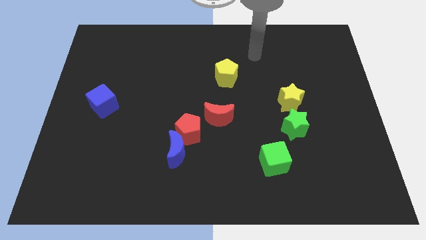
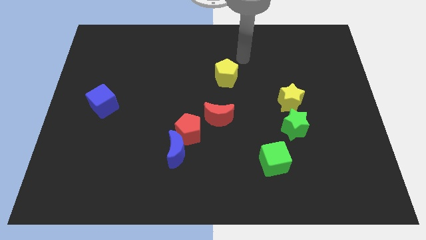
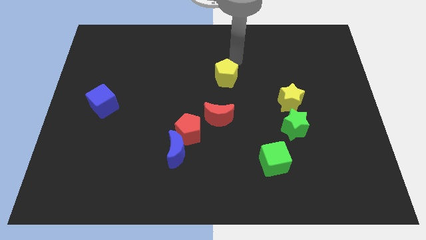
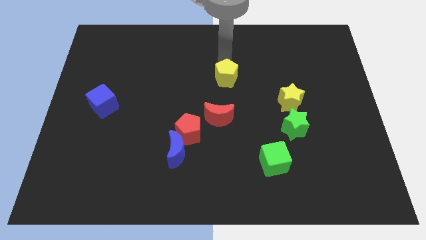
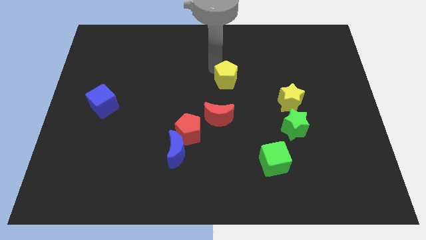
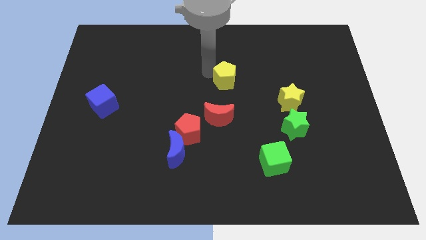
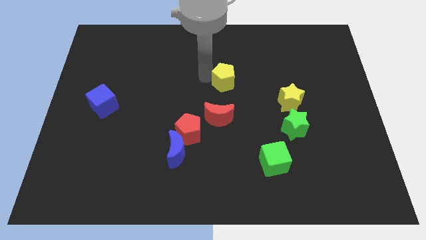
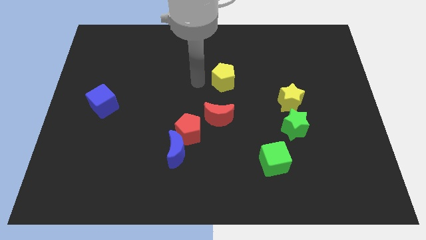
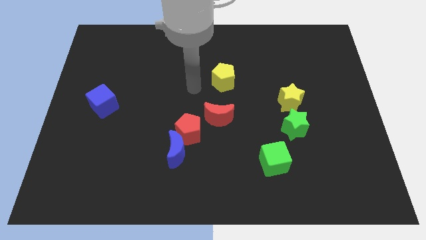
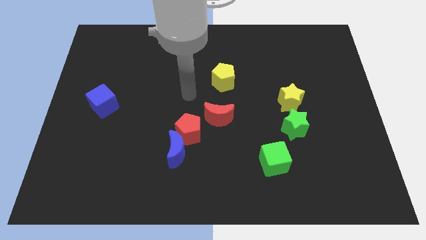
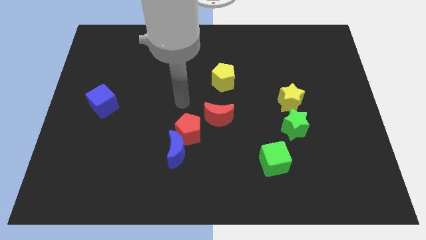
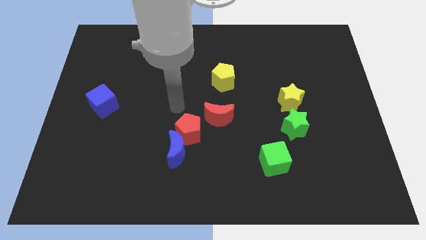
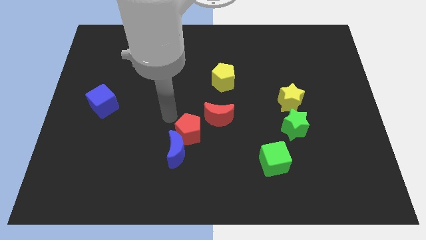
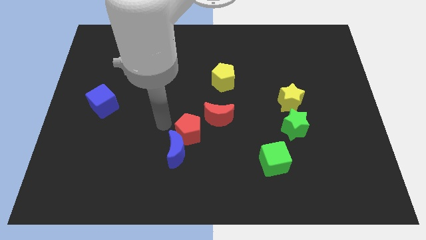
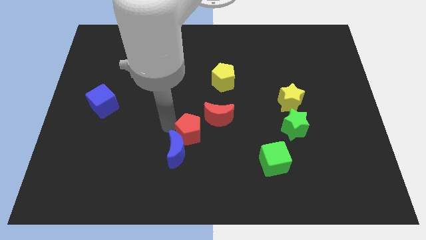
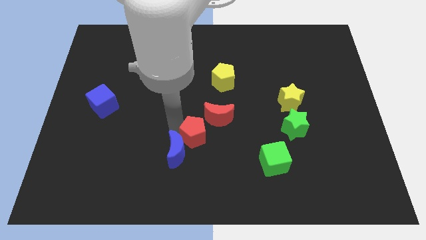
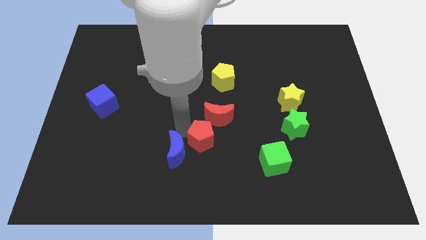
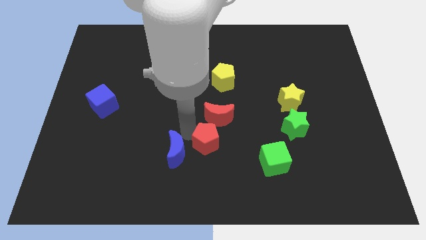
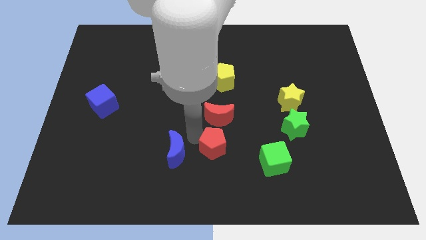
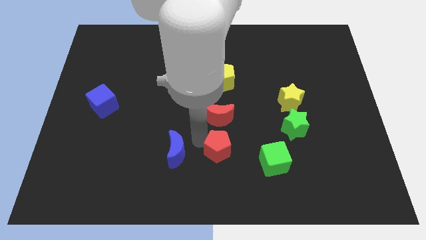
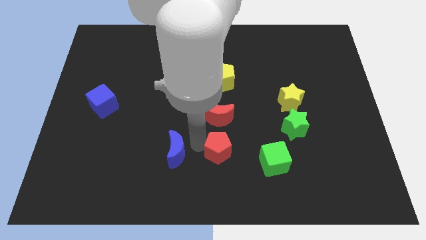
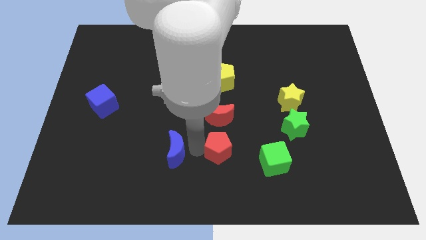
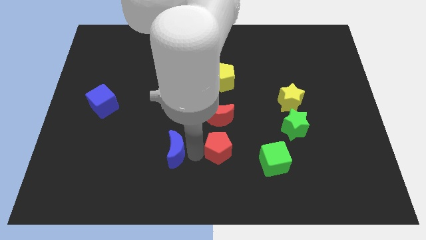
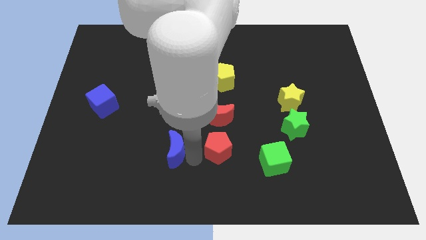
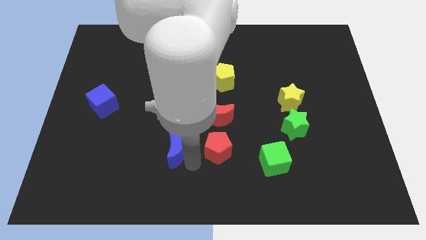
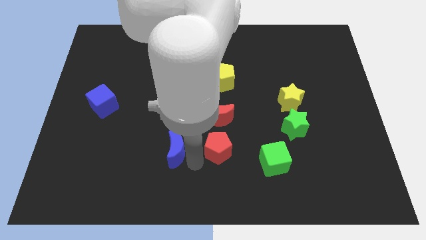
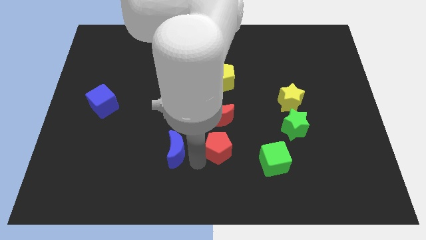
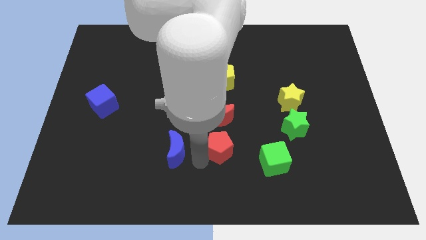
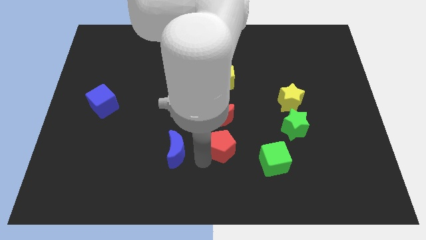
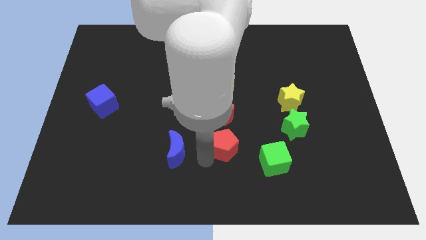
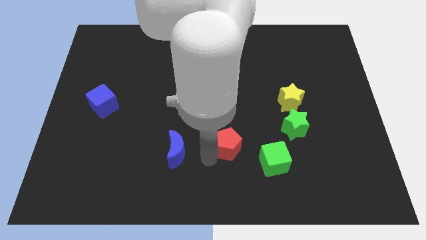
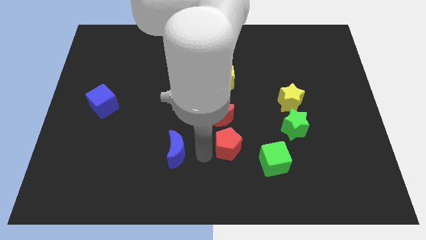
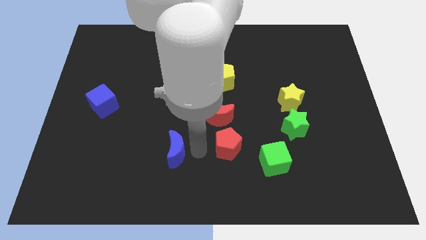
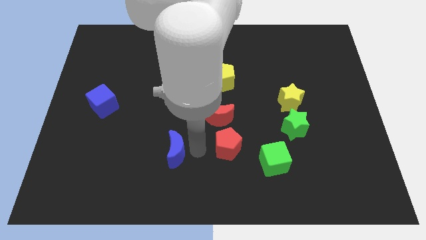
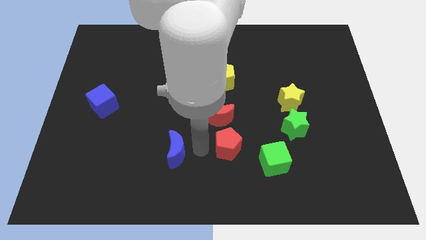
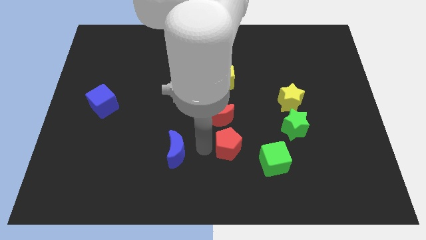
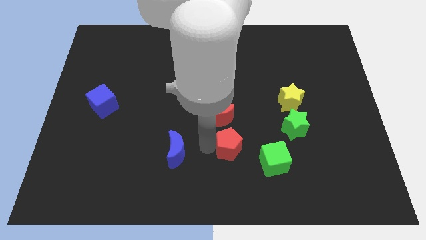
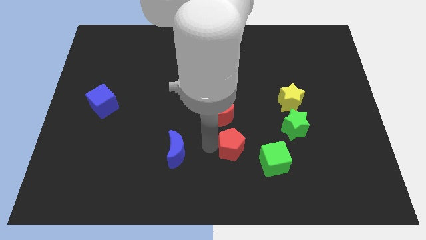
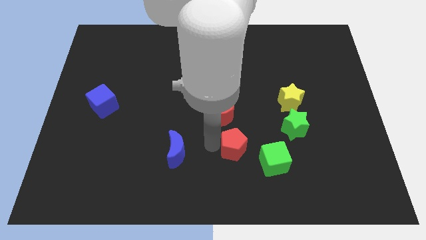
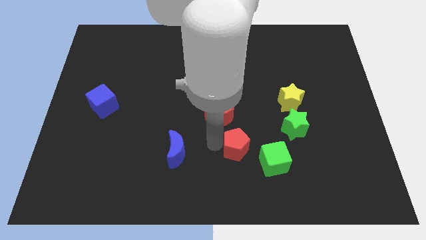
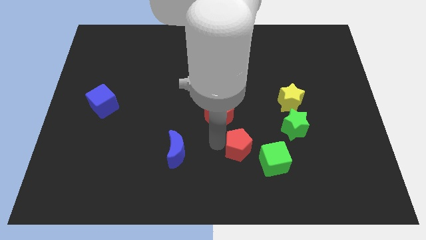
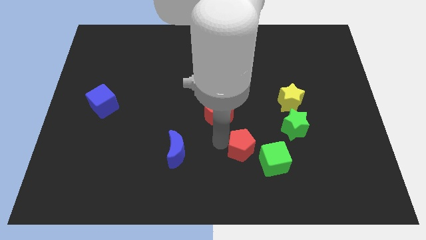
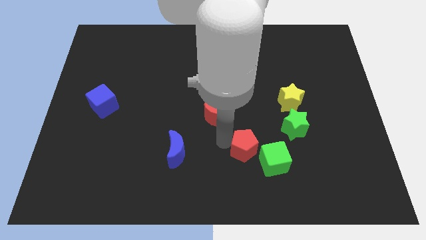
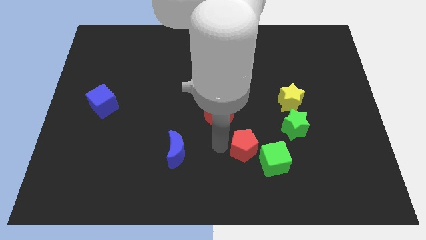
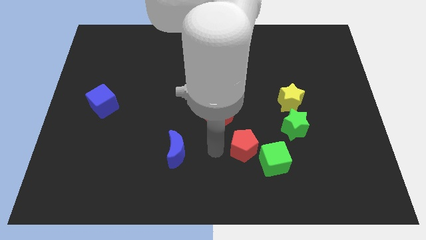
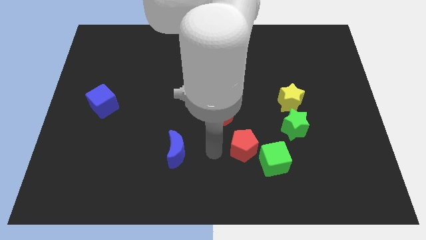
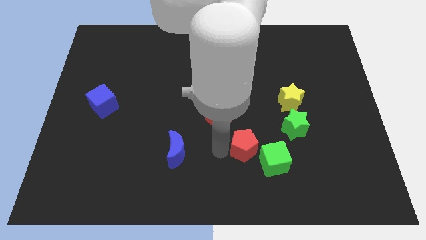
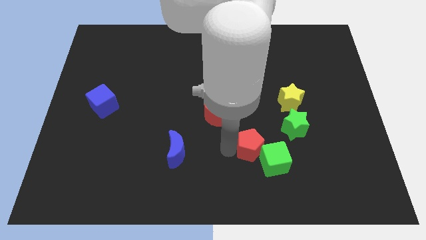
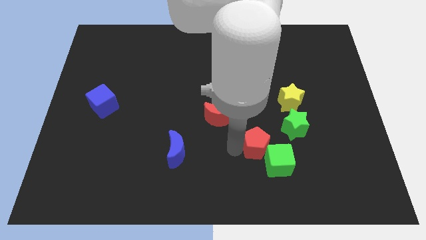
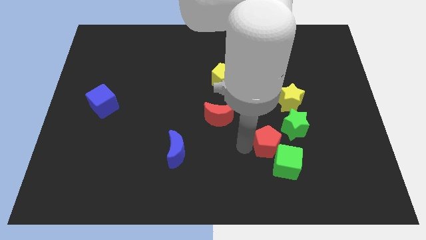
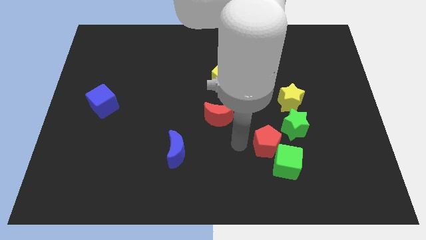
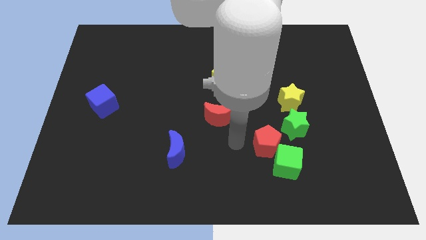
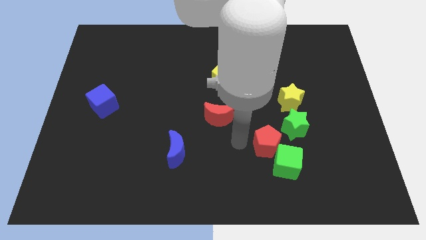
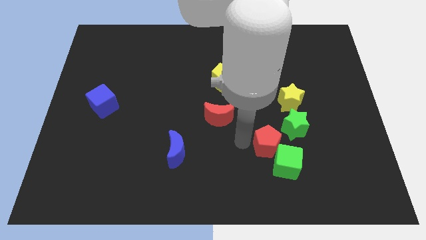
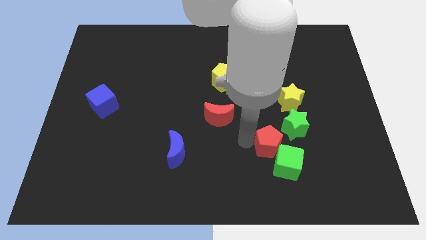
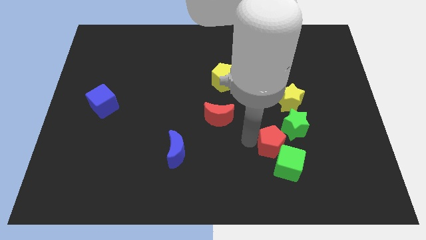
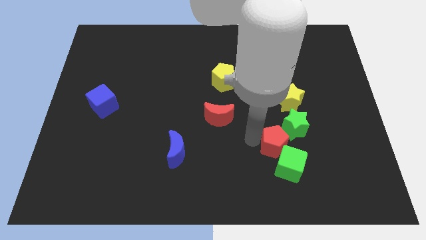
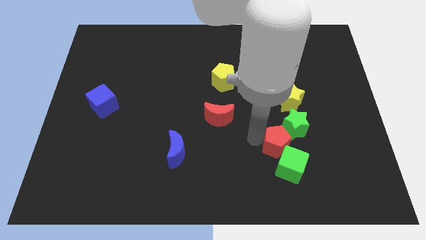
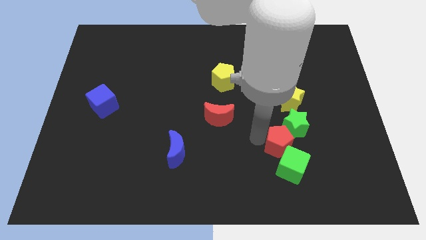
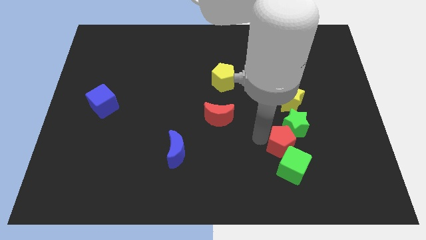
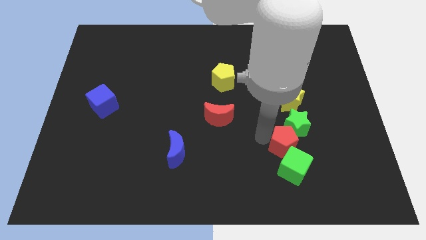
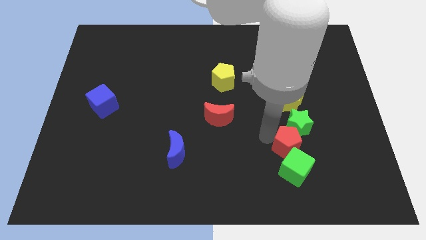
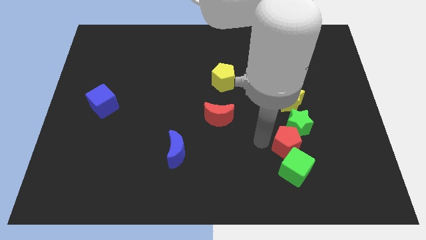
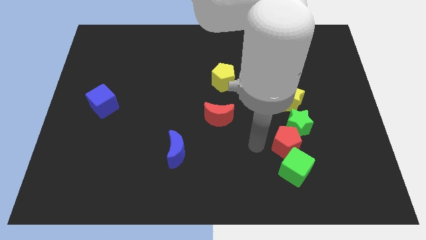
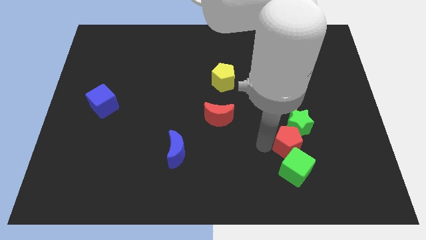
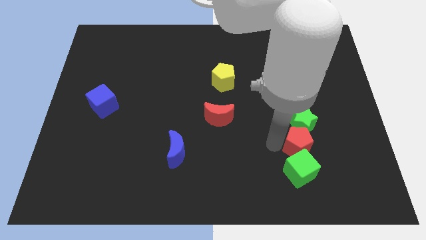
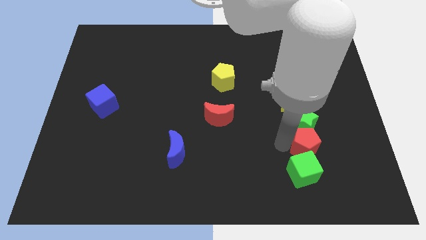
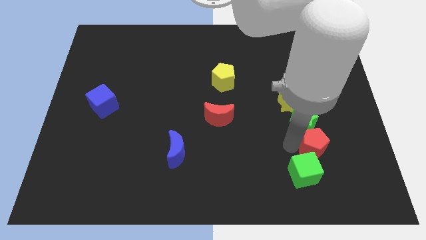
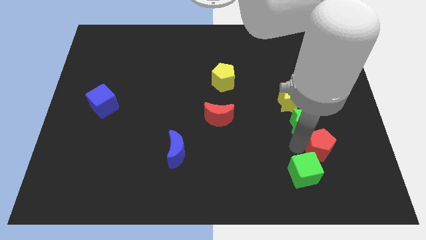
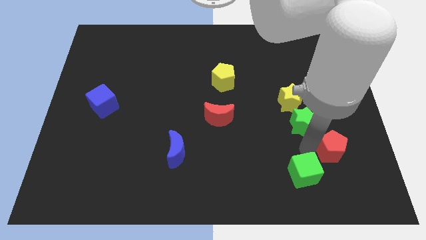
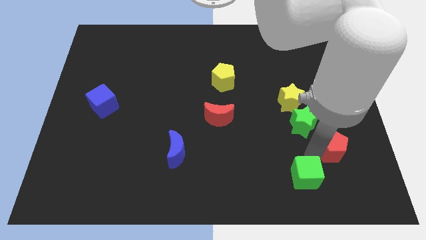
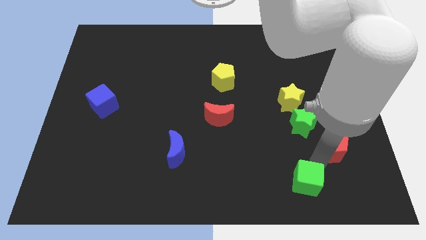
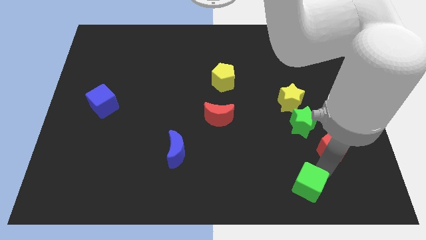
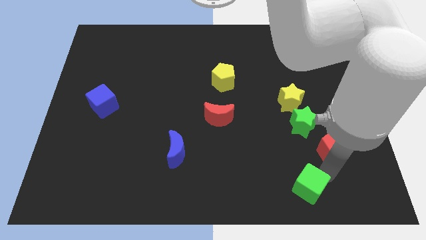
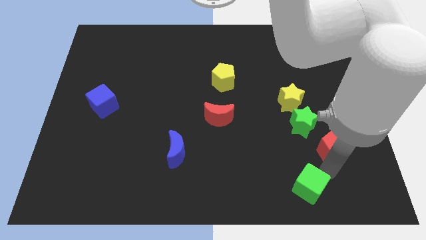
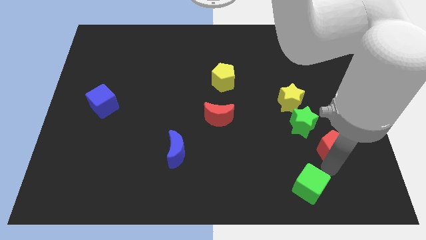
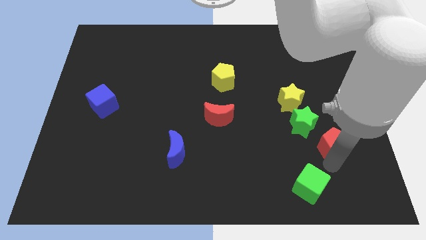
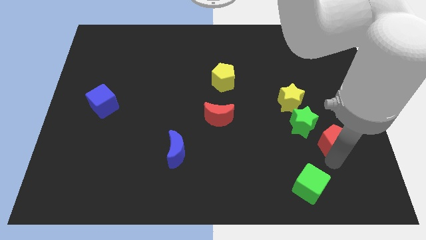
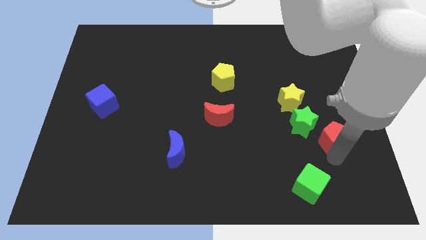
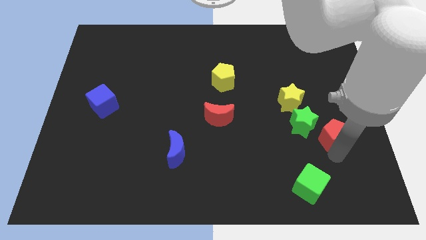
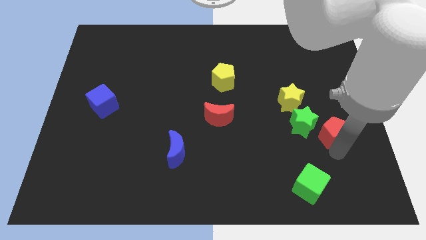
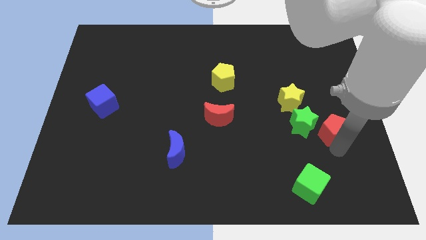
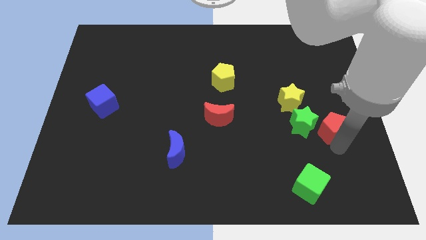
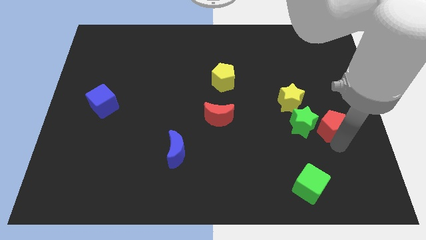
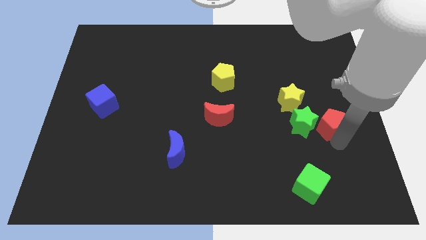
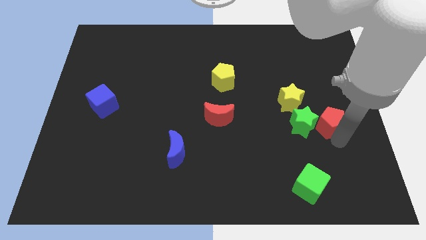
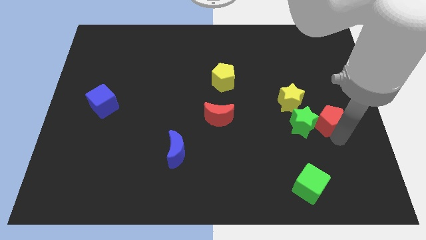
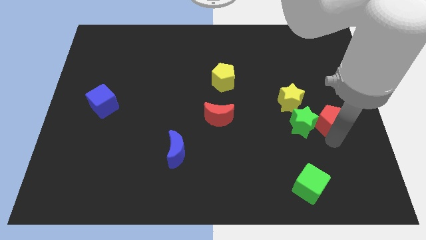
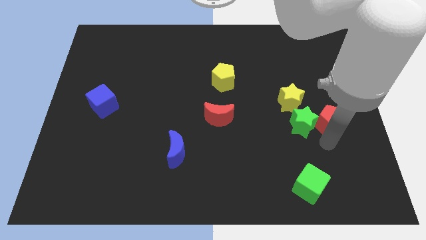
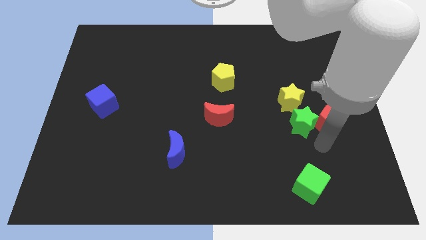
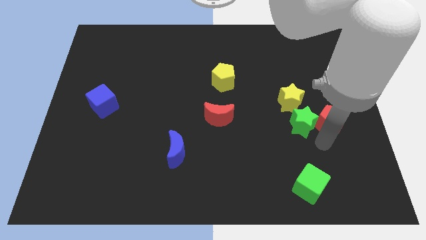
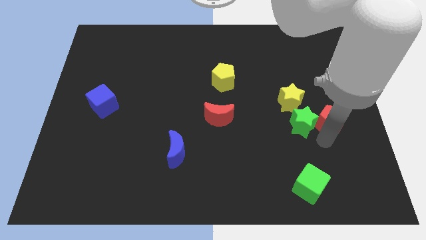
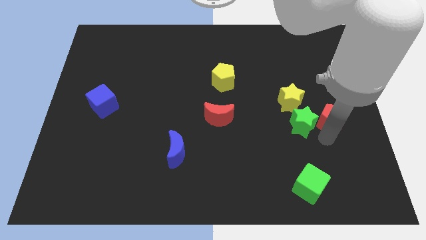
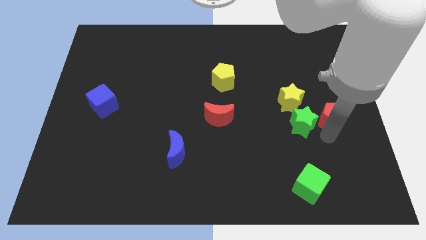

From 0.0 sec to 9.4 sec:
push the red pentagon just right of the yellow star
